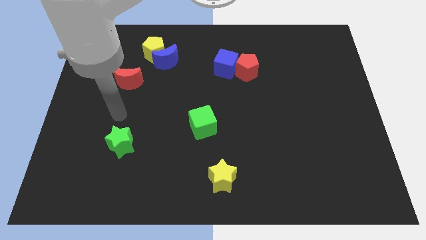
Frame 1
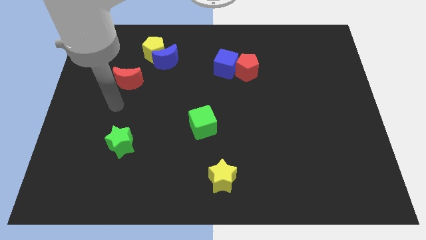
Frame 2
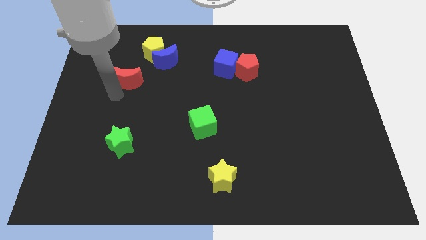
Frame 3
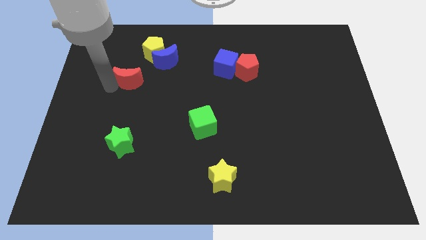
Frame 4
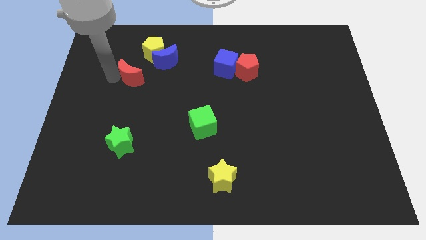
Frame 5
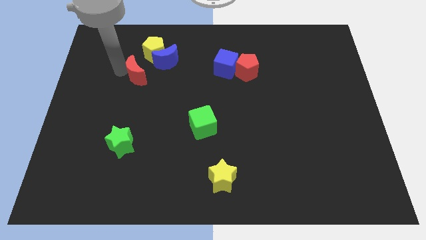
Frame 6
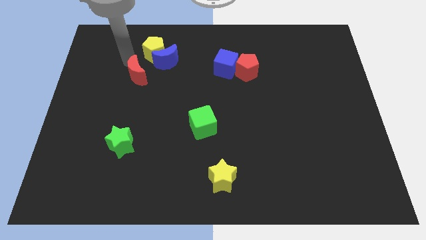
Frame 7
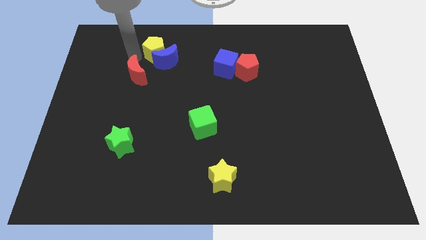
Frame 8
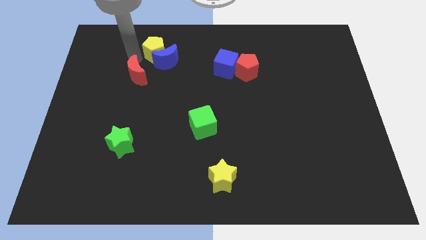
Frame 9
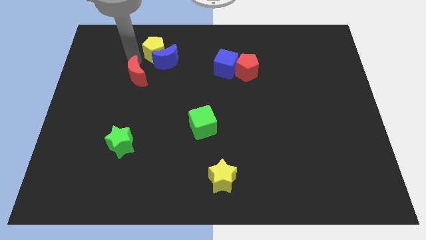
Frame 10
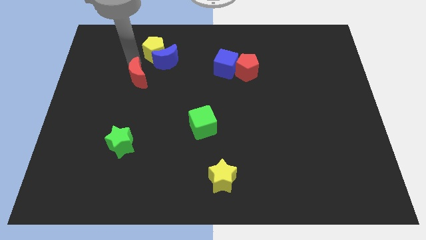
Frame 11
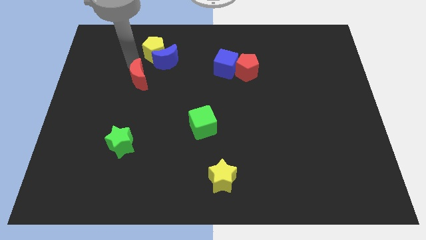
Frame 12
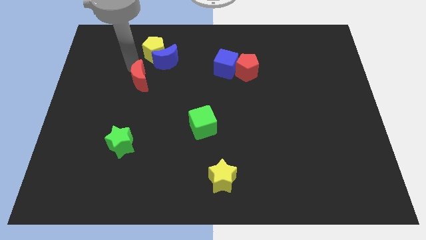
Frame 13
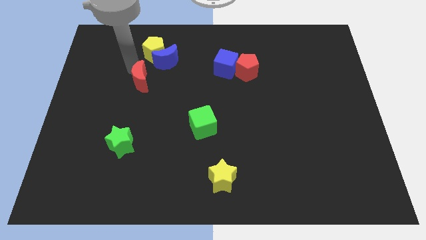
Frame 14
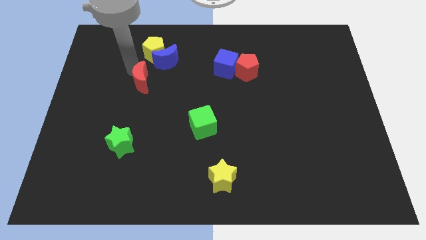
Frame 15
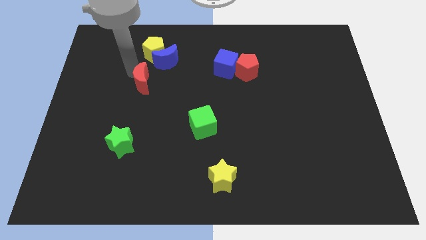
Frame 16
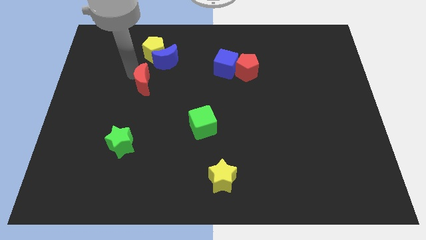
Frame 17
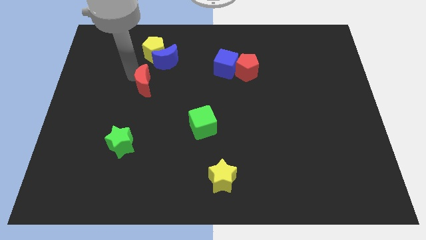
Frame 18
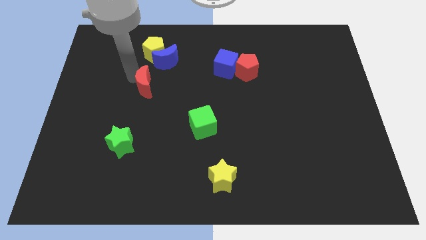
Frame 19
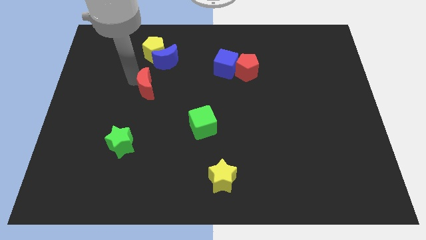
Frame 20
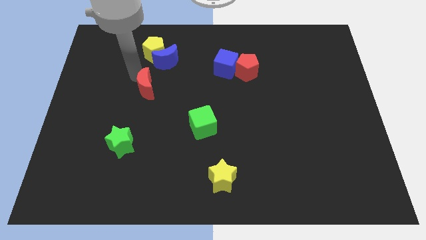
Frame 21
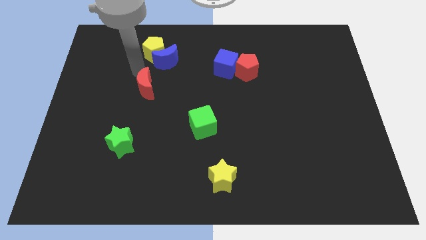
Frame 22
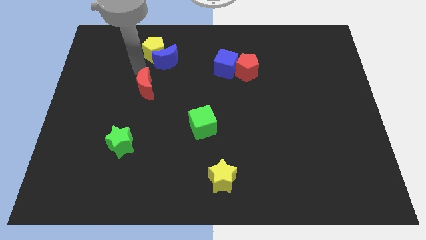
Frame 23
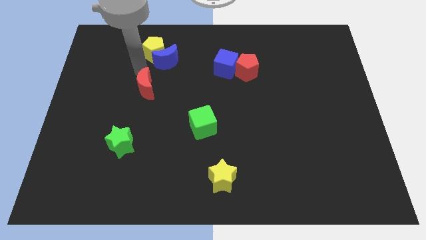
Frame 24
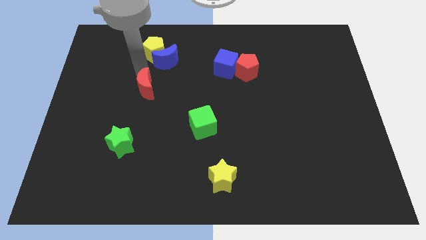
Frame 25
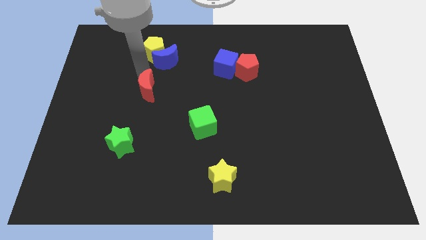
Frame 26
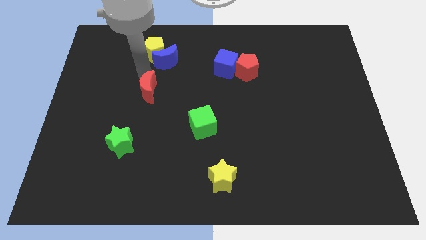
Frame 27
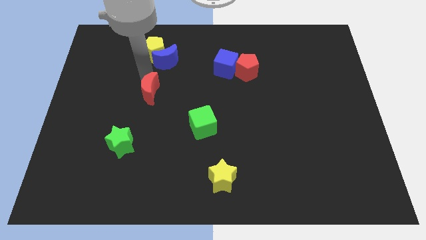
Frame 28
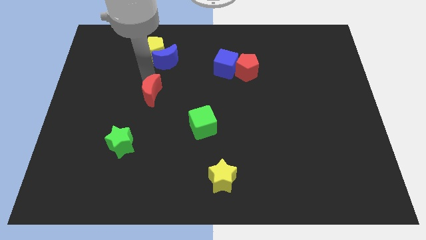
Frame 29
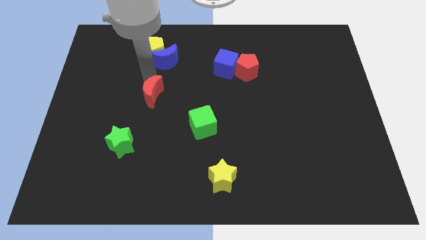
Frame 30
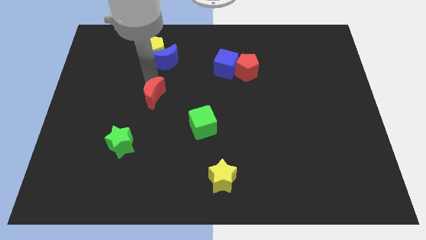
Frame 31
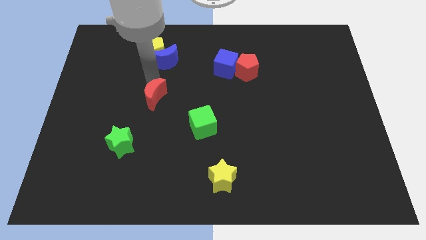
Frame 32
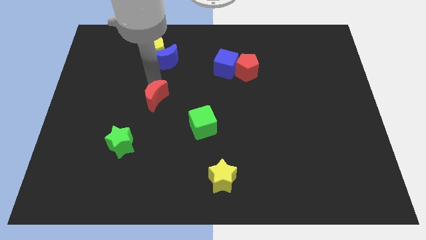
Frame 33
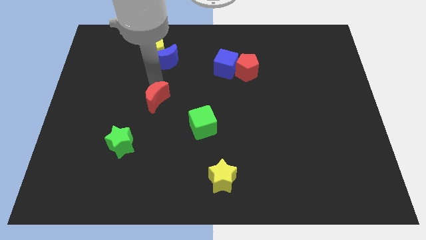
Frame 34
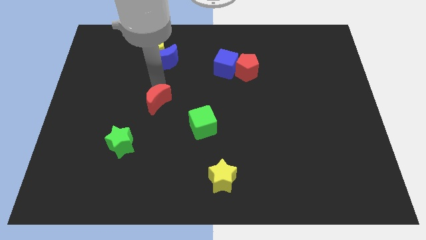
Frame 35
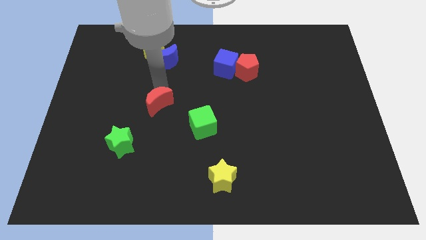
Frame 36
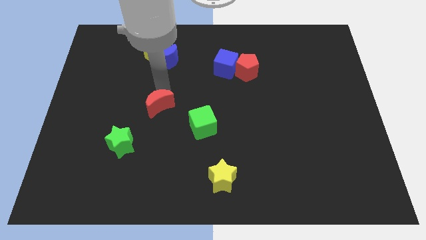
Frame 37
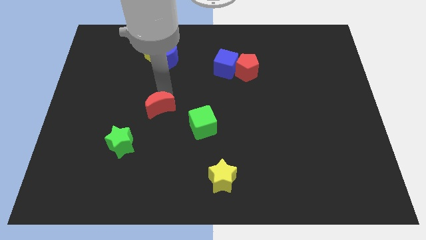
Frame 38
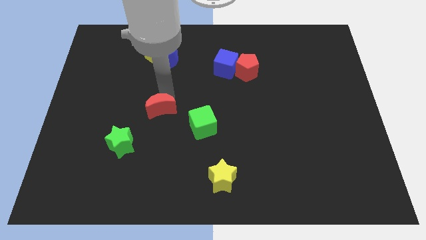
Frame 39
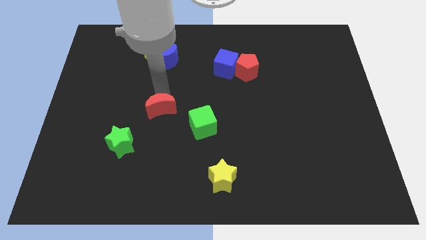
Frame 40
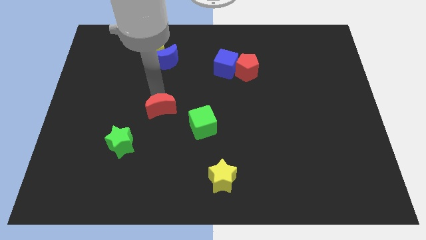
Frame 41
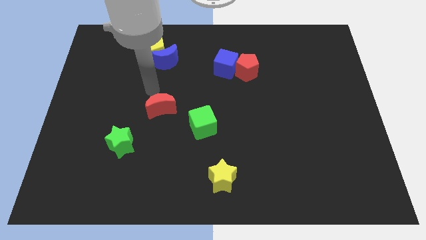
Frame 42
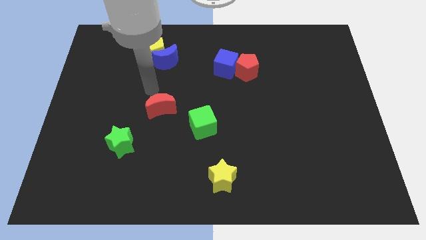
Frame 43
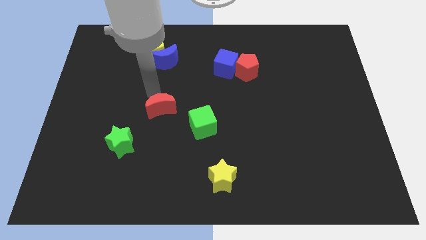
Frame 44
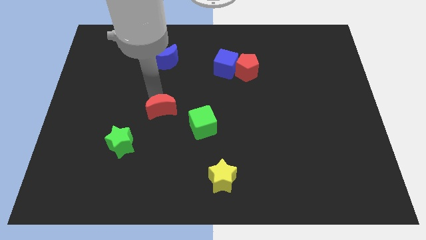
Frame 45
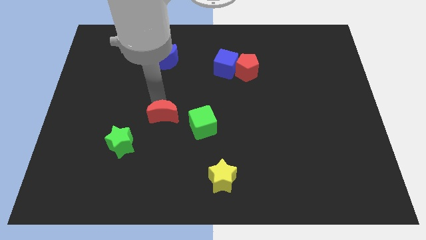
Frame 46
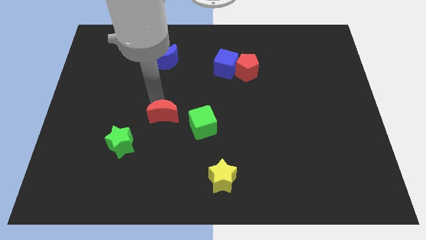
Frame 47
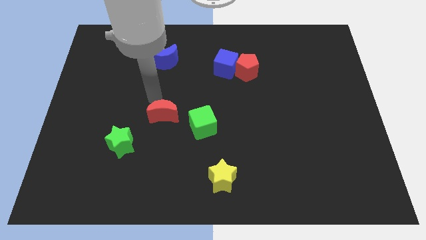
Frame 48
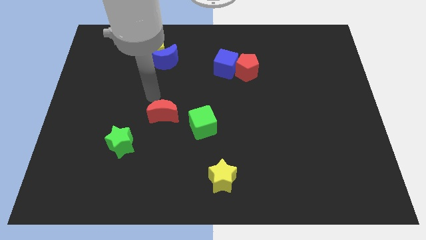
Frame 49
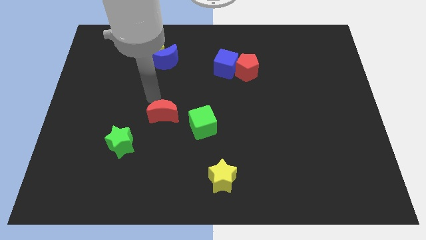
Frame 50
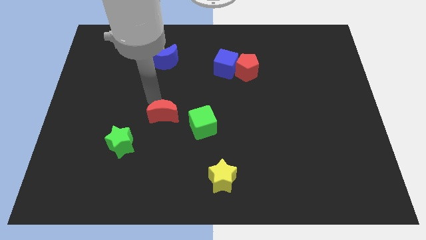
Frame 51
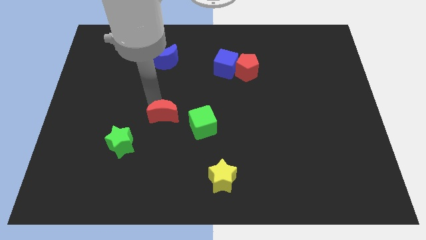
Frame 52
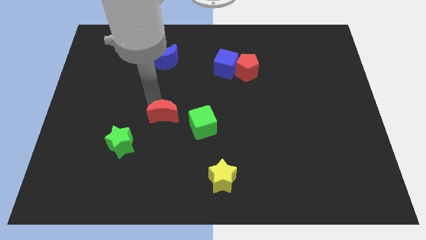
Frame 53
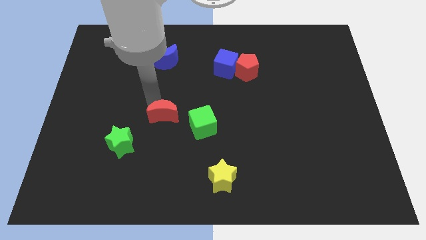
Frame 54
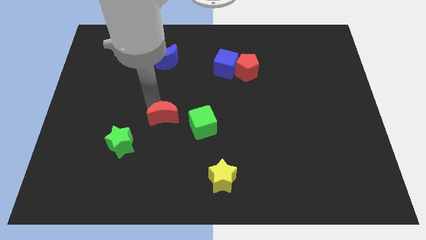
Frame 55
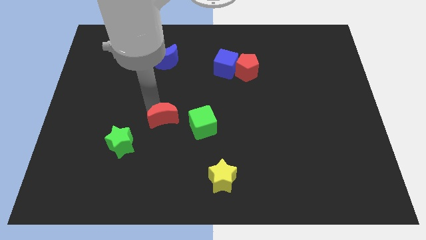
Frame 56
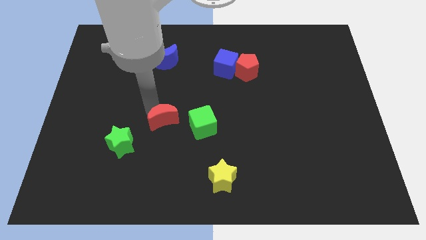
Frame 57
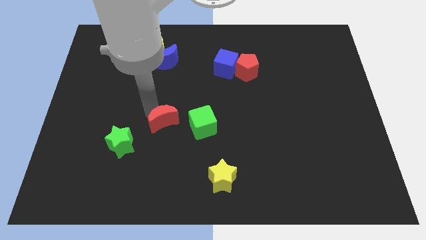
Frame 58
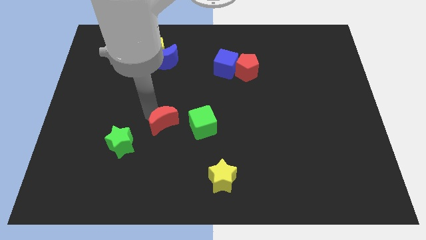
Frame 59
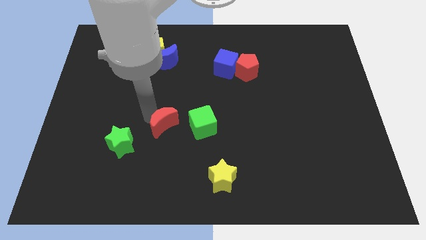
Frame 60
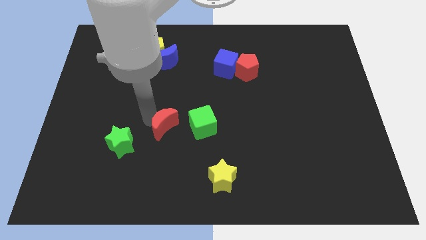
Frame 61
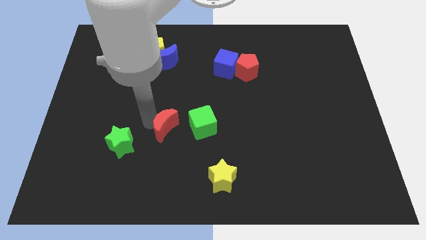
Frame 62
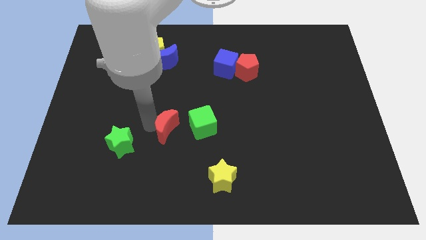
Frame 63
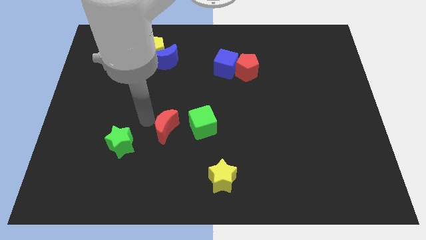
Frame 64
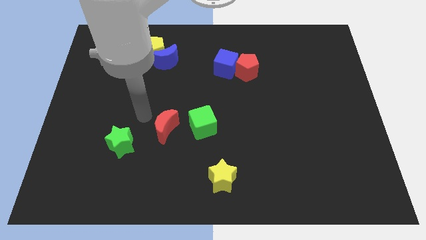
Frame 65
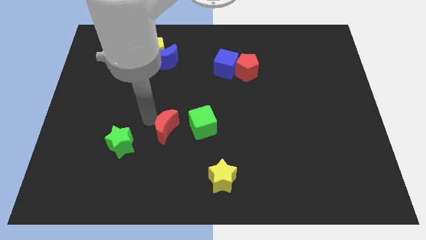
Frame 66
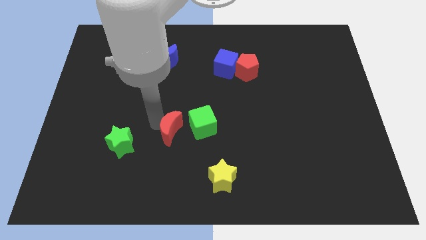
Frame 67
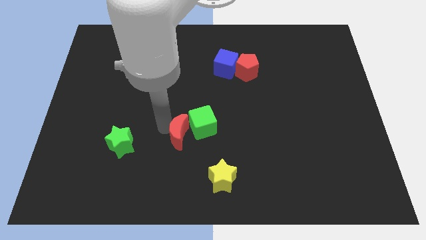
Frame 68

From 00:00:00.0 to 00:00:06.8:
slide the red moon down and to the right

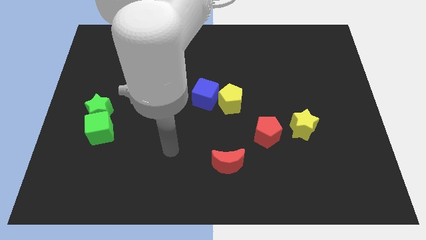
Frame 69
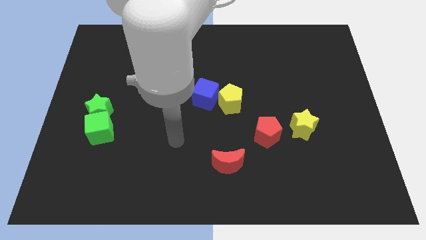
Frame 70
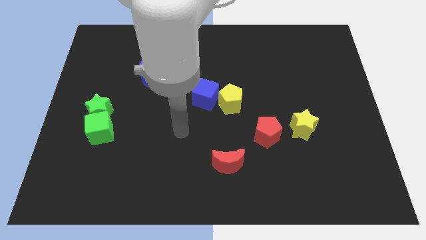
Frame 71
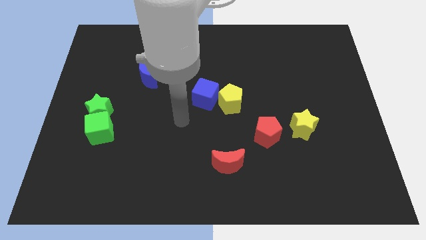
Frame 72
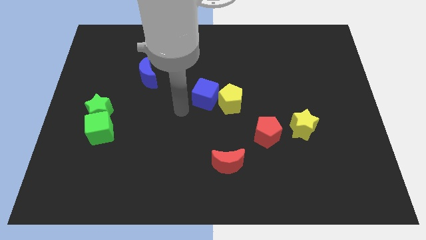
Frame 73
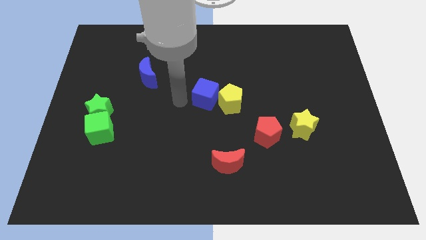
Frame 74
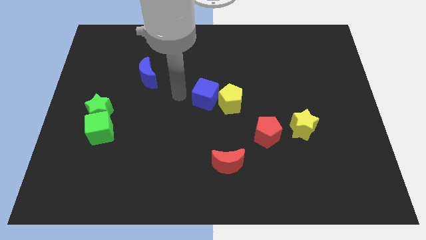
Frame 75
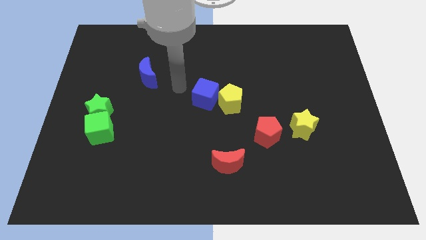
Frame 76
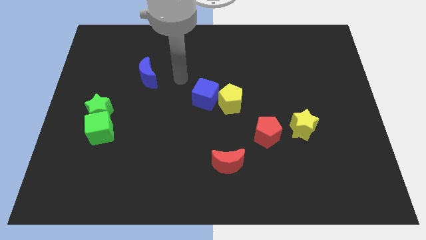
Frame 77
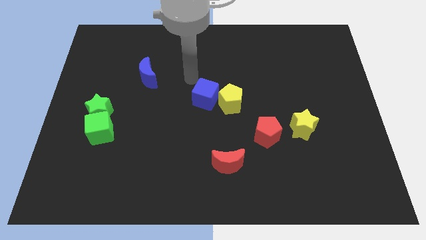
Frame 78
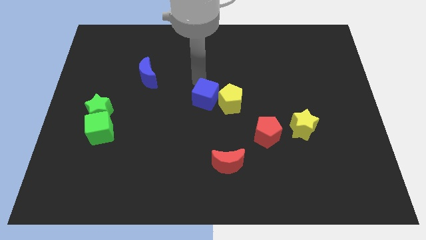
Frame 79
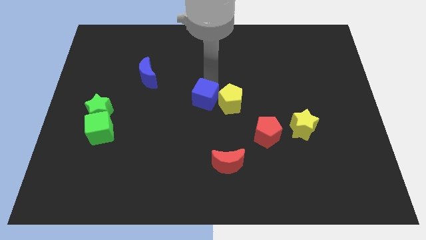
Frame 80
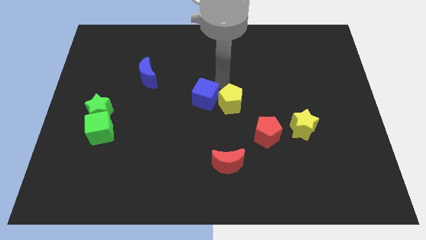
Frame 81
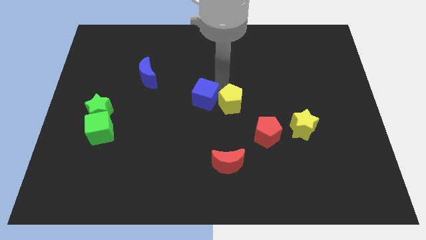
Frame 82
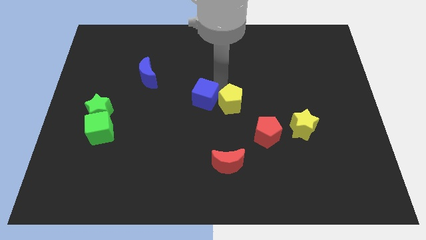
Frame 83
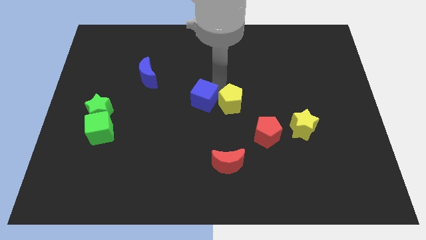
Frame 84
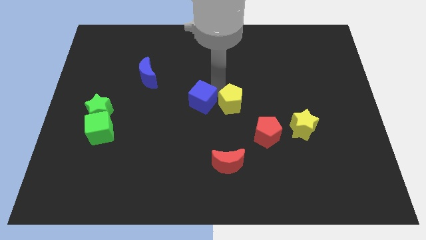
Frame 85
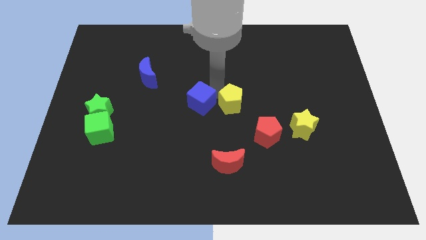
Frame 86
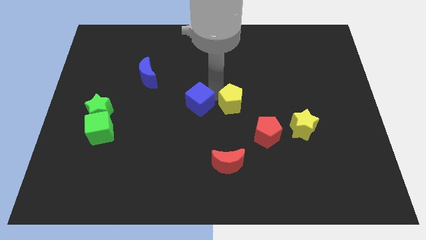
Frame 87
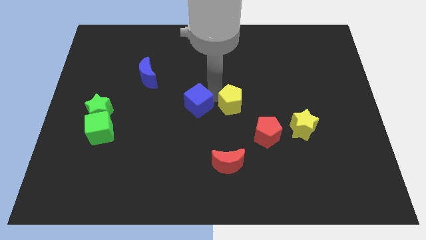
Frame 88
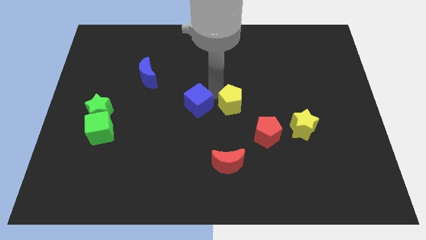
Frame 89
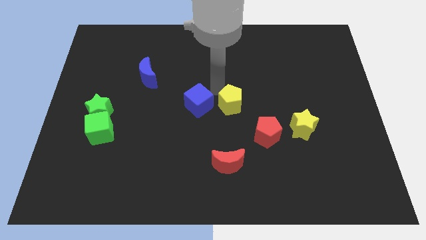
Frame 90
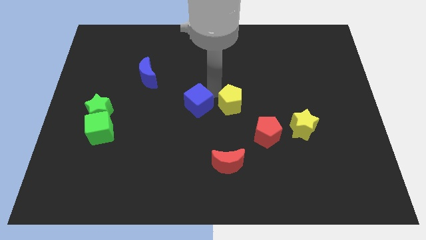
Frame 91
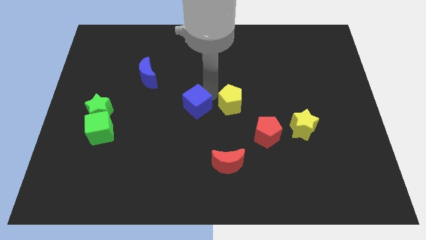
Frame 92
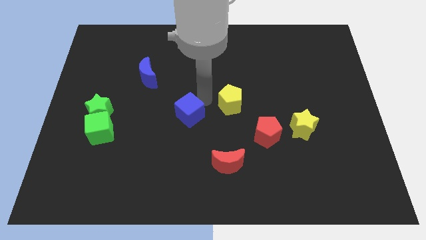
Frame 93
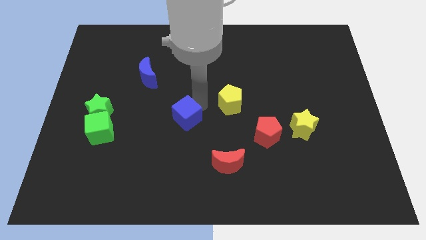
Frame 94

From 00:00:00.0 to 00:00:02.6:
move the blue cube slightly downwards and to the left
